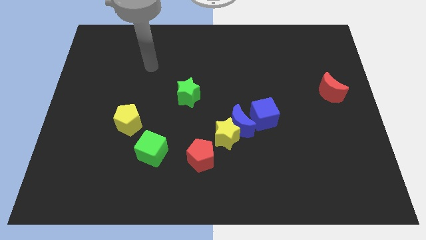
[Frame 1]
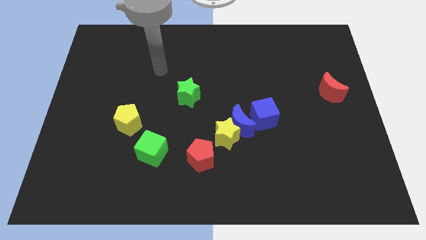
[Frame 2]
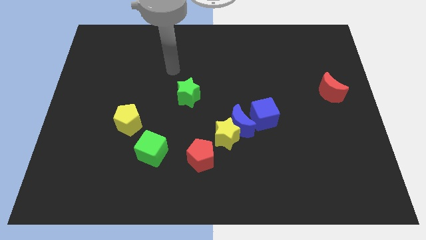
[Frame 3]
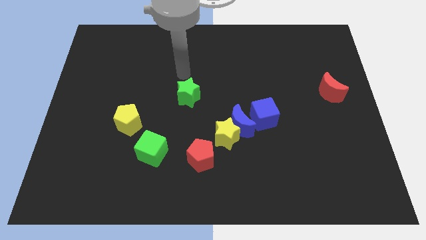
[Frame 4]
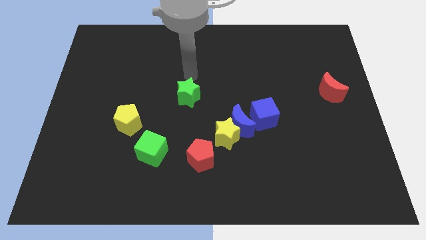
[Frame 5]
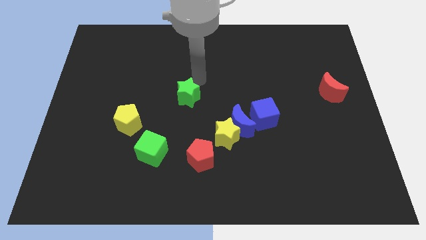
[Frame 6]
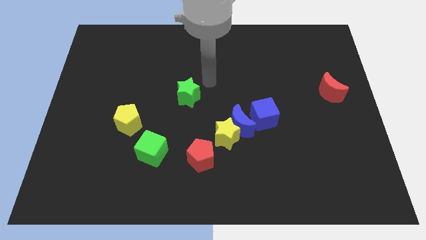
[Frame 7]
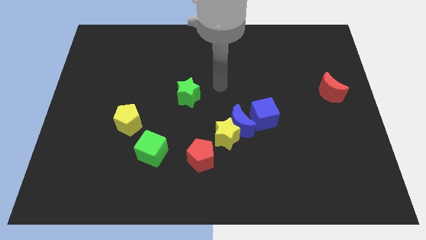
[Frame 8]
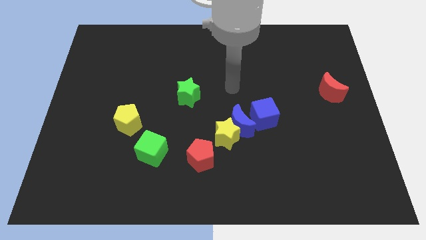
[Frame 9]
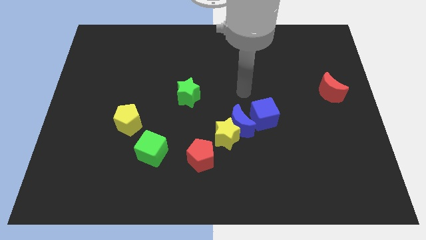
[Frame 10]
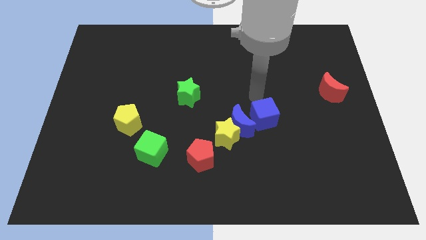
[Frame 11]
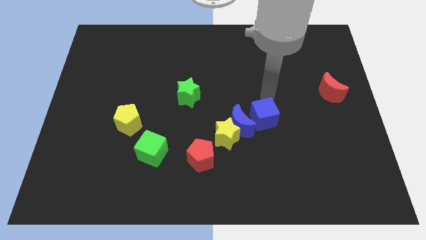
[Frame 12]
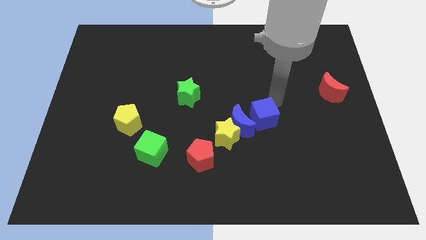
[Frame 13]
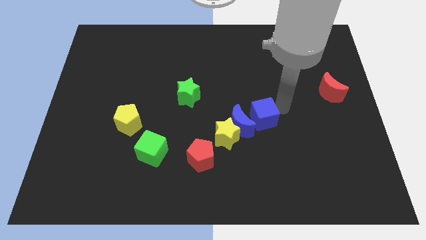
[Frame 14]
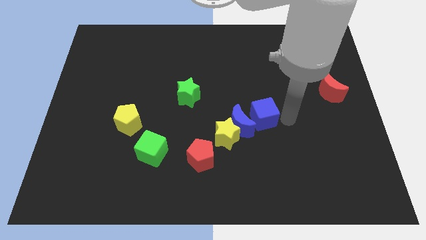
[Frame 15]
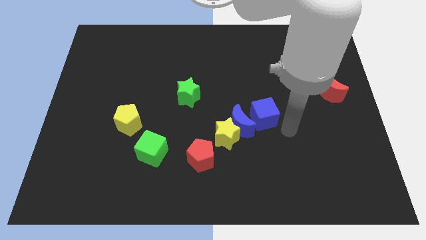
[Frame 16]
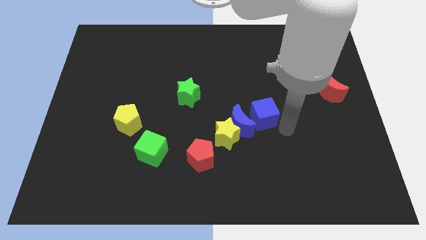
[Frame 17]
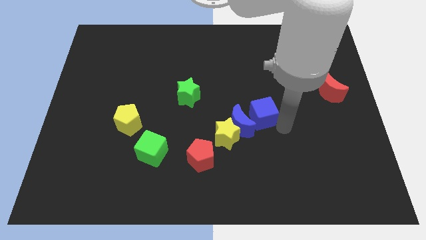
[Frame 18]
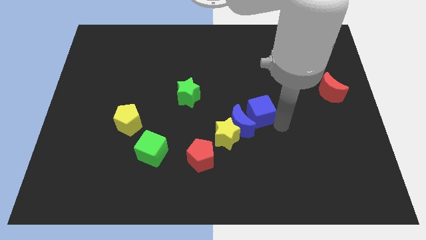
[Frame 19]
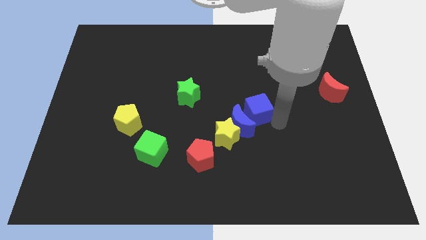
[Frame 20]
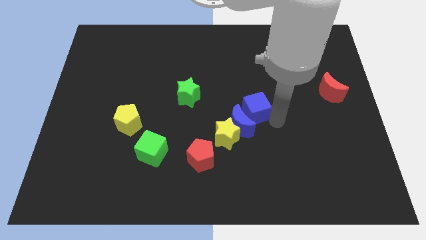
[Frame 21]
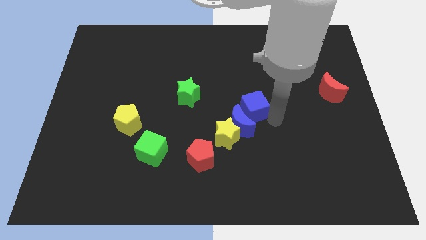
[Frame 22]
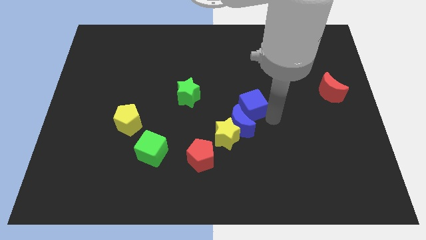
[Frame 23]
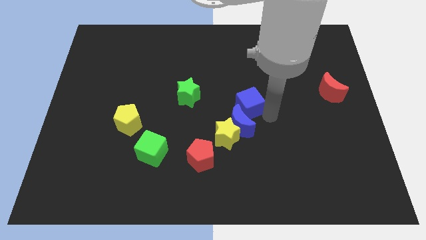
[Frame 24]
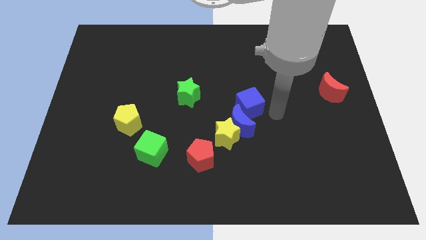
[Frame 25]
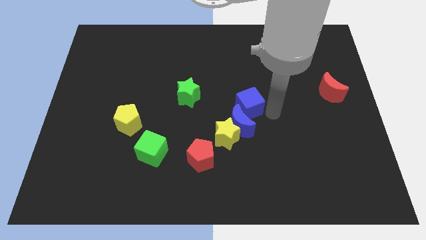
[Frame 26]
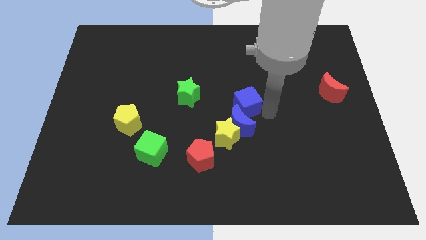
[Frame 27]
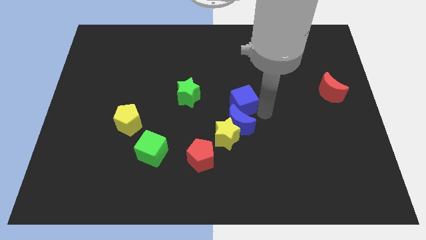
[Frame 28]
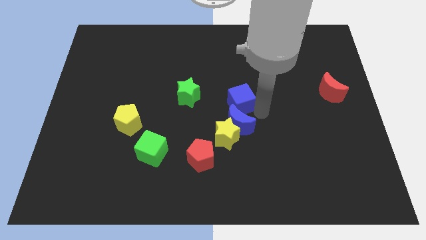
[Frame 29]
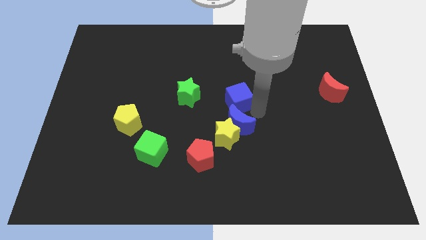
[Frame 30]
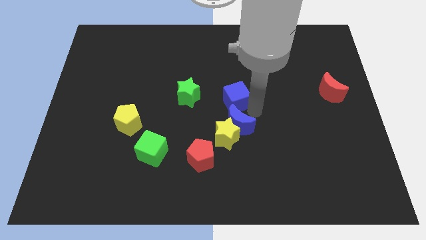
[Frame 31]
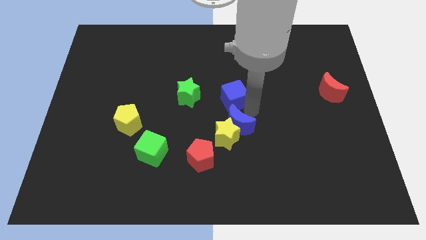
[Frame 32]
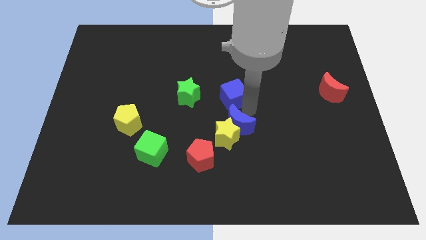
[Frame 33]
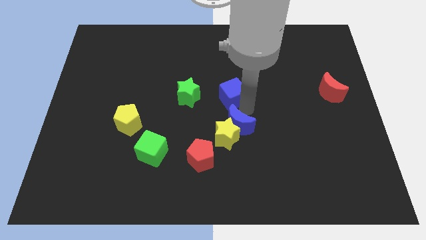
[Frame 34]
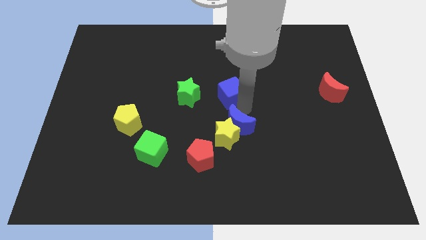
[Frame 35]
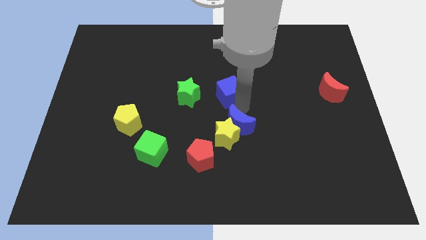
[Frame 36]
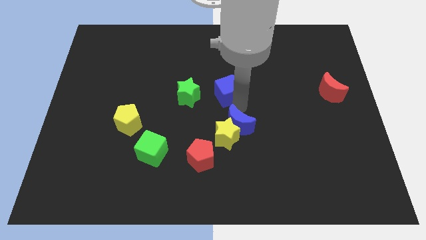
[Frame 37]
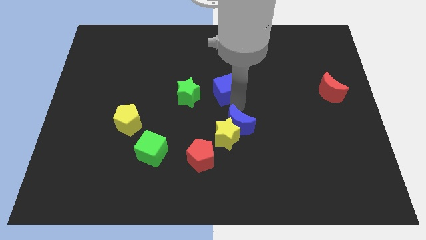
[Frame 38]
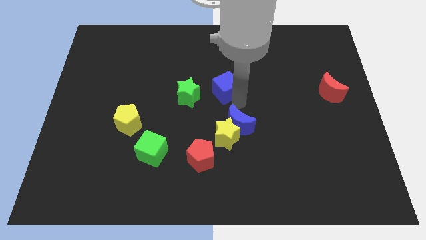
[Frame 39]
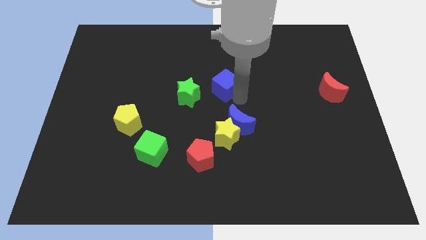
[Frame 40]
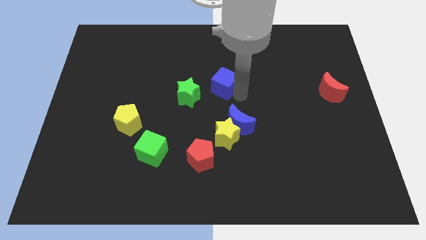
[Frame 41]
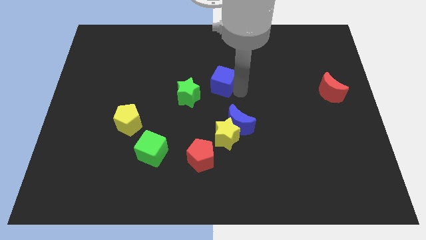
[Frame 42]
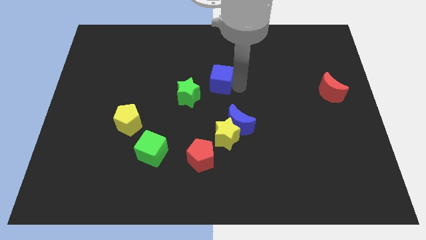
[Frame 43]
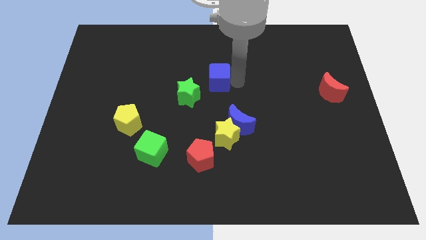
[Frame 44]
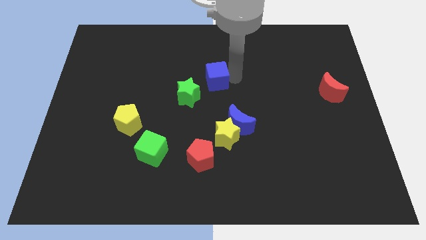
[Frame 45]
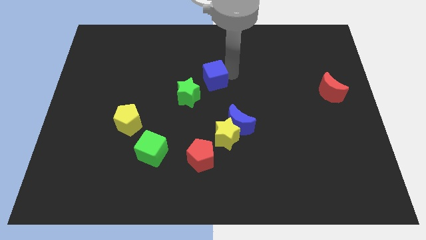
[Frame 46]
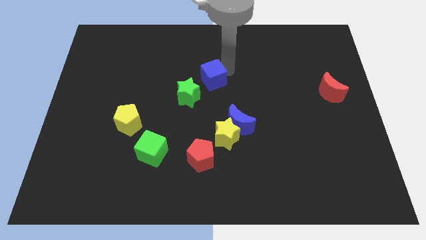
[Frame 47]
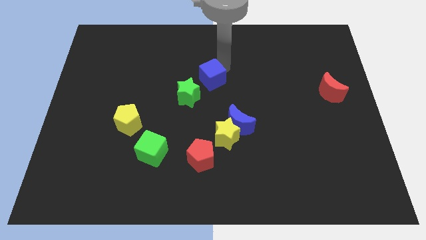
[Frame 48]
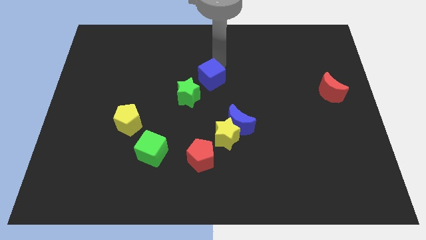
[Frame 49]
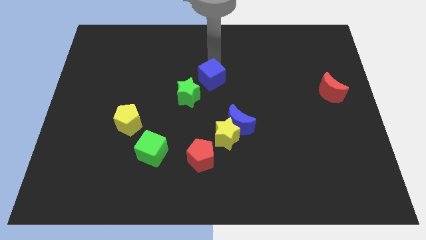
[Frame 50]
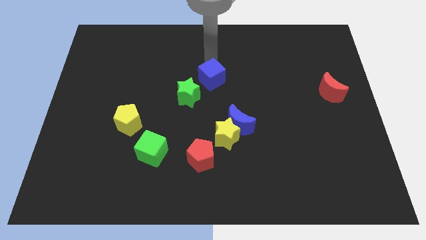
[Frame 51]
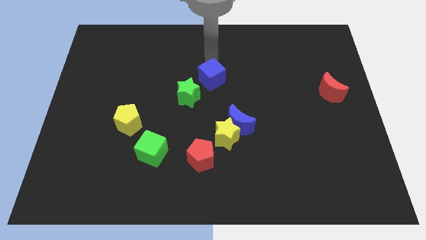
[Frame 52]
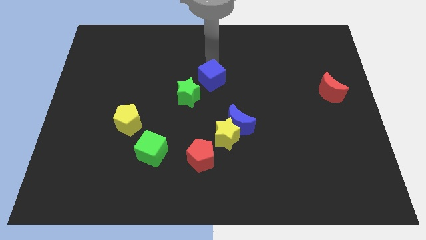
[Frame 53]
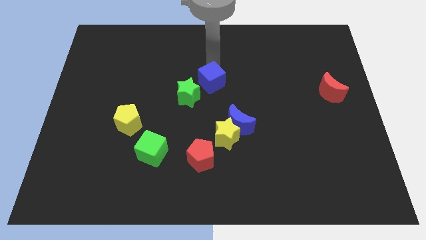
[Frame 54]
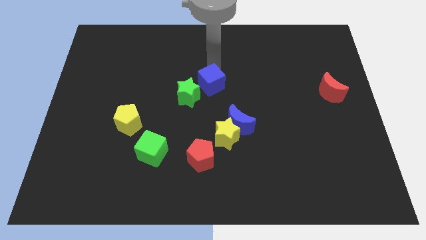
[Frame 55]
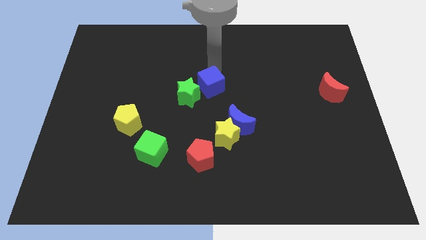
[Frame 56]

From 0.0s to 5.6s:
slide the blue cube to the green star

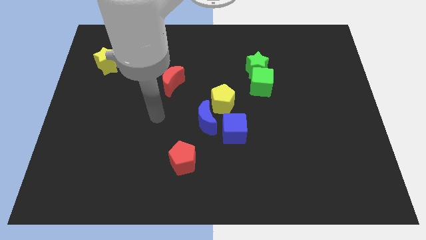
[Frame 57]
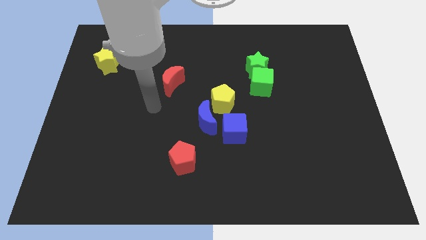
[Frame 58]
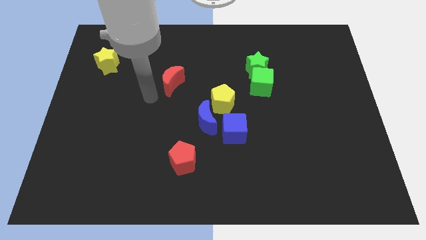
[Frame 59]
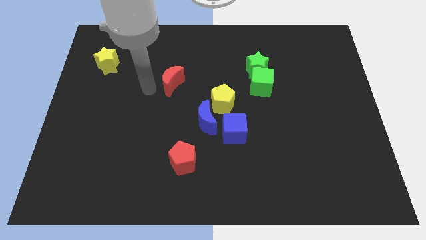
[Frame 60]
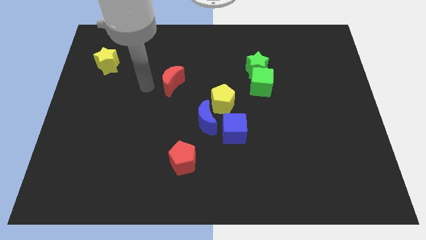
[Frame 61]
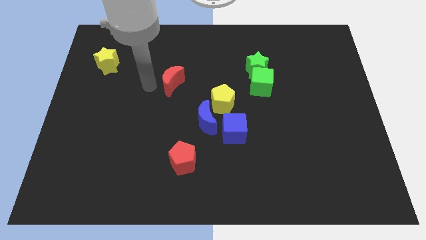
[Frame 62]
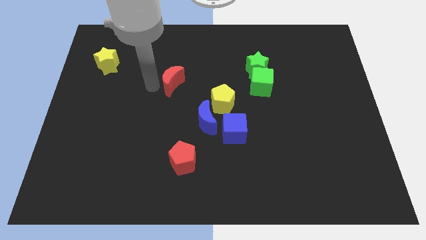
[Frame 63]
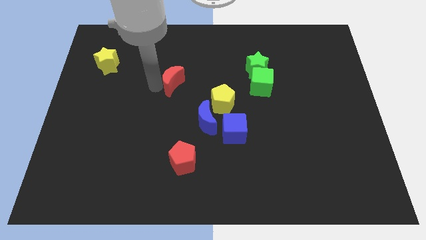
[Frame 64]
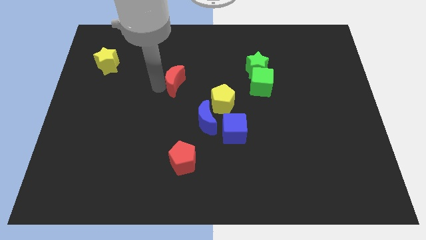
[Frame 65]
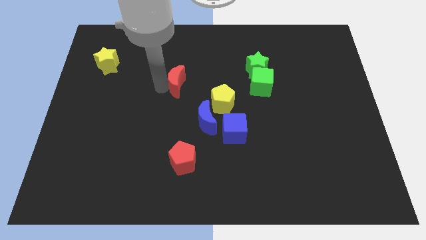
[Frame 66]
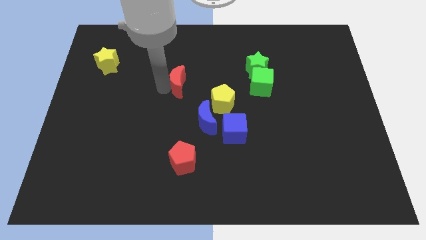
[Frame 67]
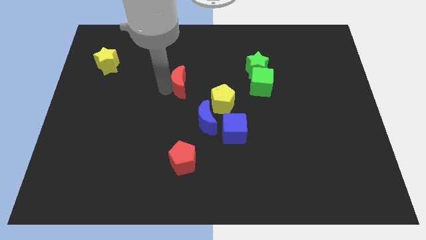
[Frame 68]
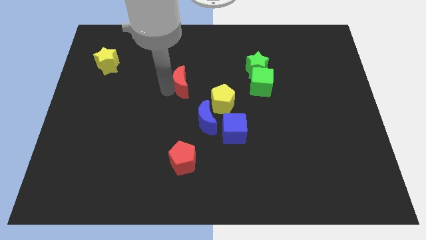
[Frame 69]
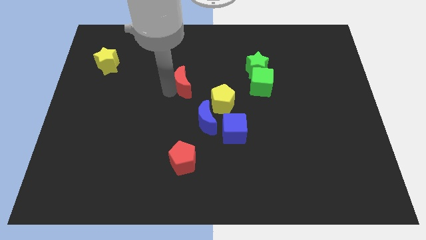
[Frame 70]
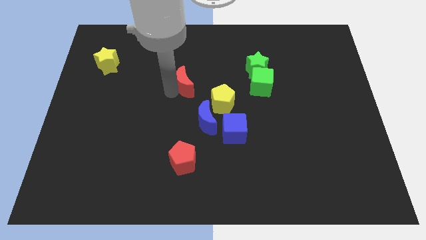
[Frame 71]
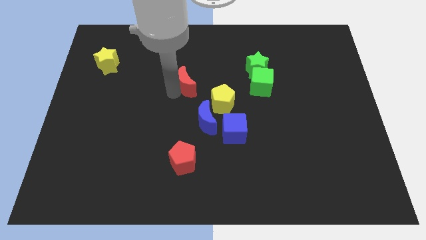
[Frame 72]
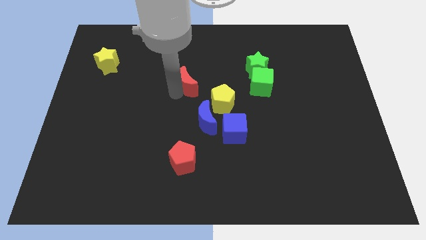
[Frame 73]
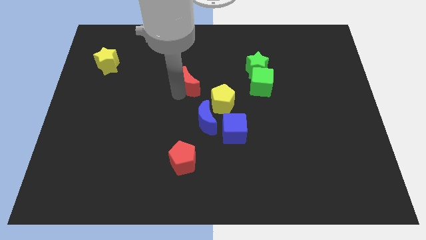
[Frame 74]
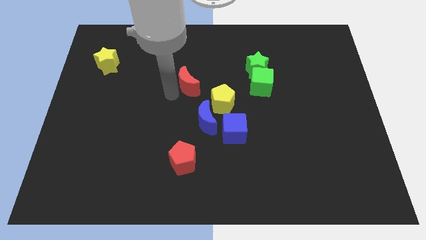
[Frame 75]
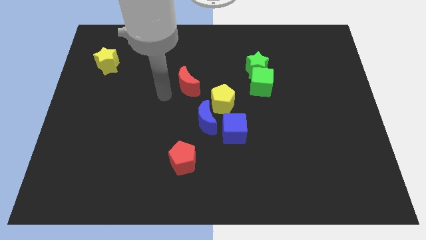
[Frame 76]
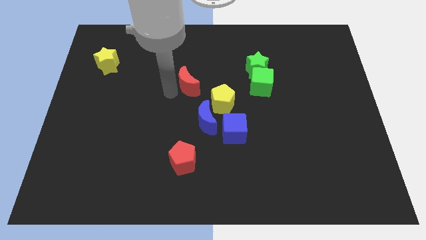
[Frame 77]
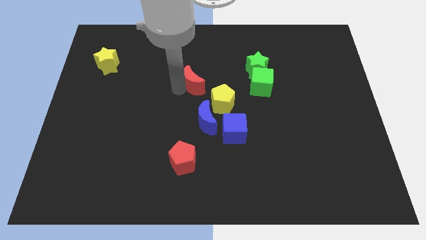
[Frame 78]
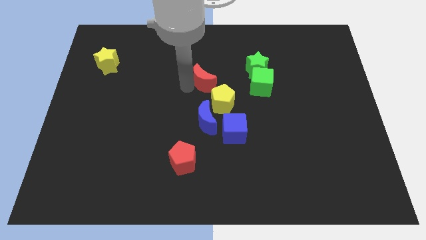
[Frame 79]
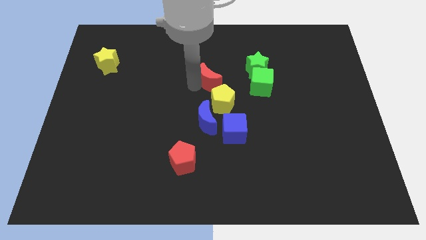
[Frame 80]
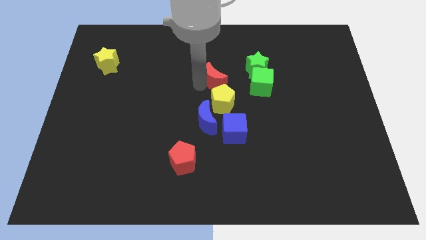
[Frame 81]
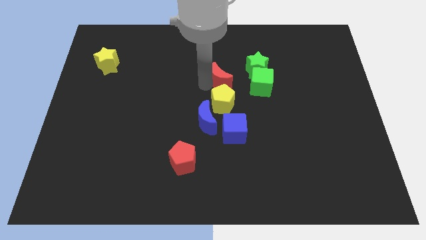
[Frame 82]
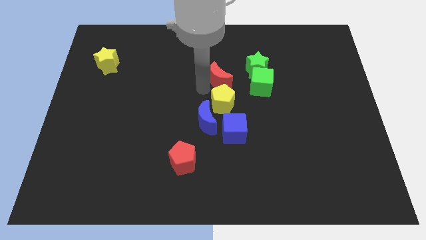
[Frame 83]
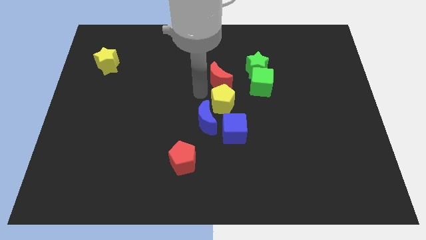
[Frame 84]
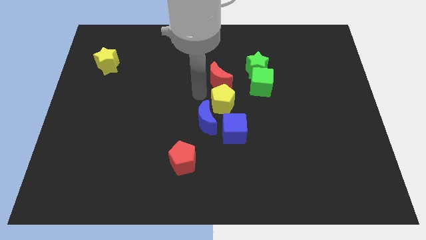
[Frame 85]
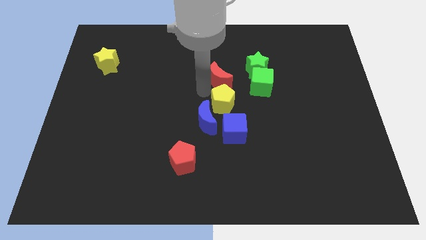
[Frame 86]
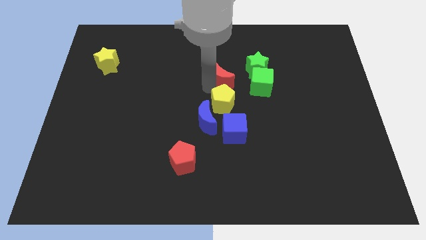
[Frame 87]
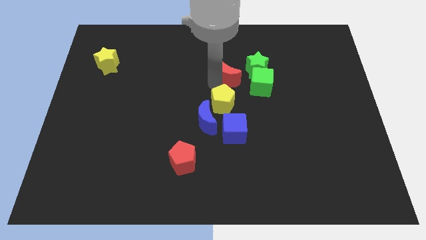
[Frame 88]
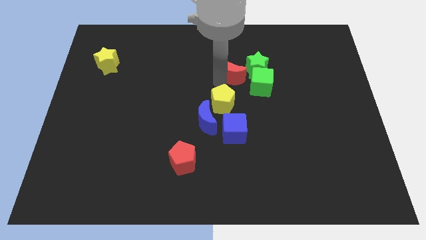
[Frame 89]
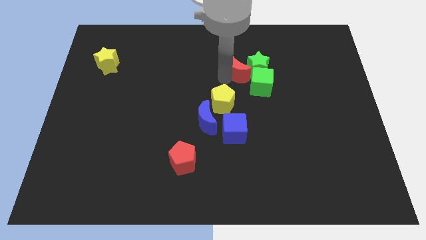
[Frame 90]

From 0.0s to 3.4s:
slide the red moon towards the green star
